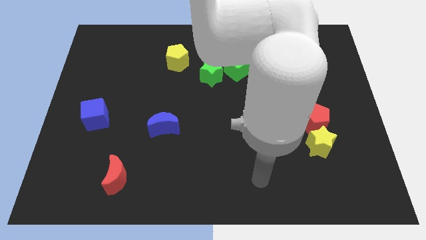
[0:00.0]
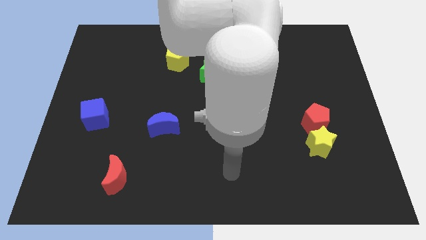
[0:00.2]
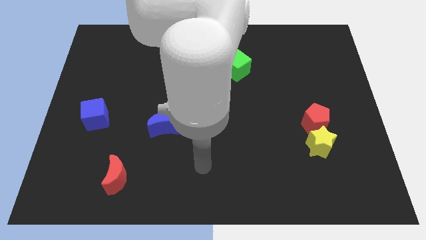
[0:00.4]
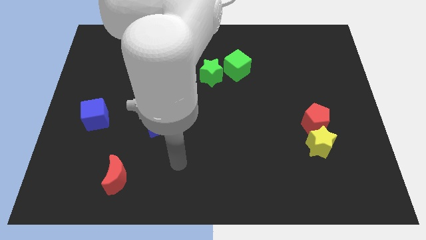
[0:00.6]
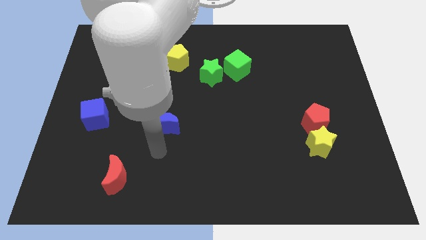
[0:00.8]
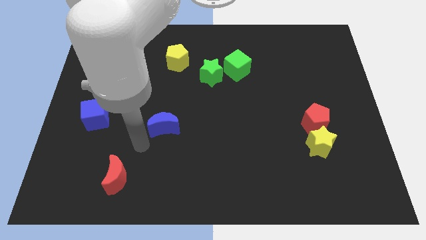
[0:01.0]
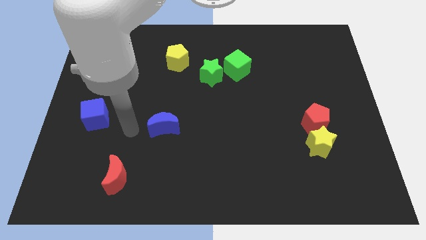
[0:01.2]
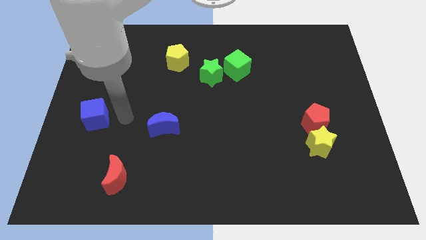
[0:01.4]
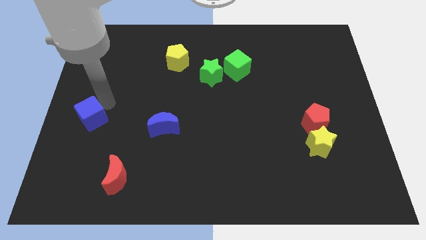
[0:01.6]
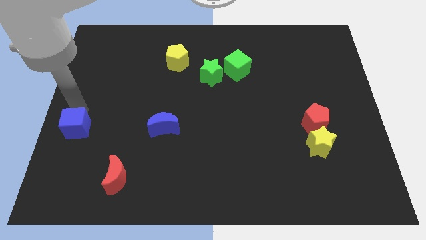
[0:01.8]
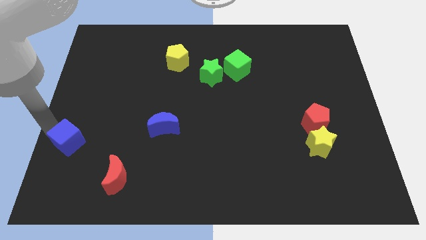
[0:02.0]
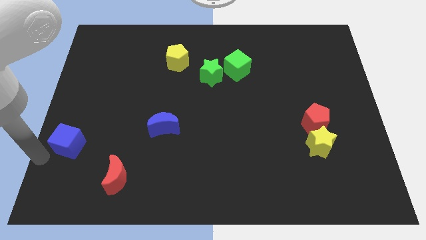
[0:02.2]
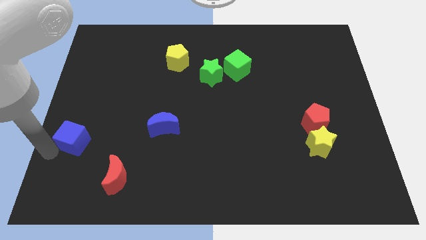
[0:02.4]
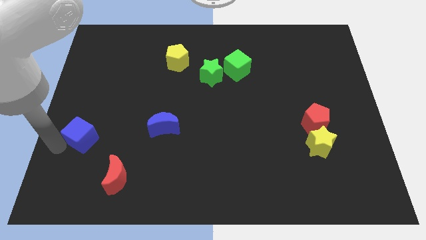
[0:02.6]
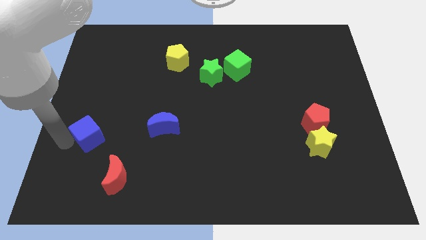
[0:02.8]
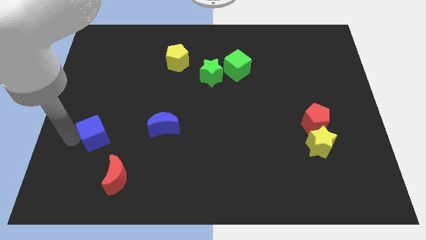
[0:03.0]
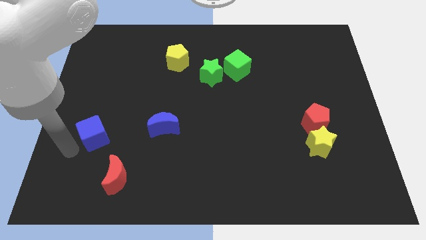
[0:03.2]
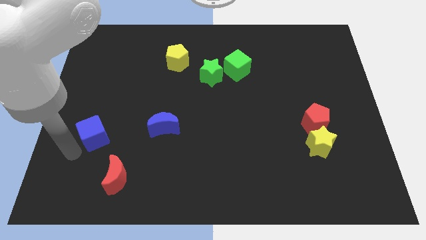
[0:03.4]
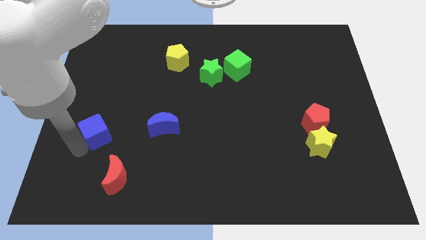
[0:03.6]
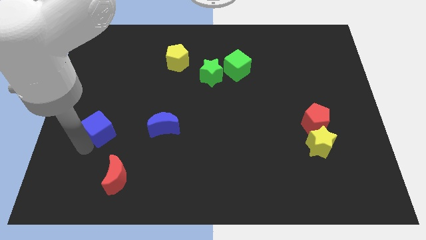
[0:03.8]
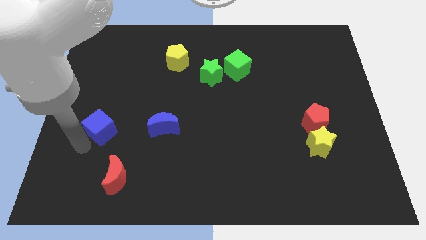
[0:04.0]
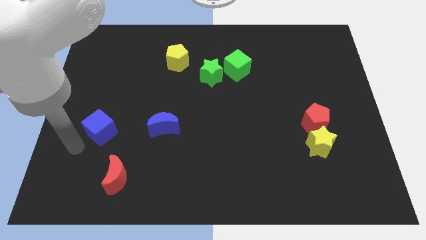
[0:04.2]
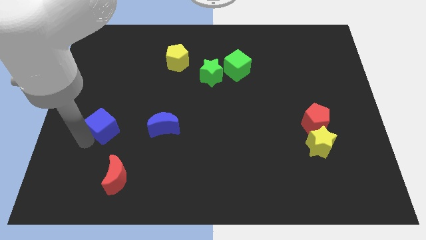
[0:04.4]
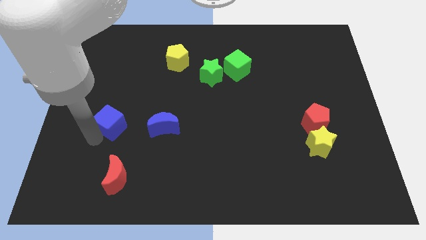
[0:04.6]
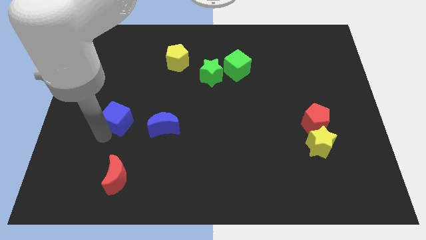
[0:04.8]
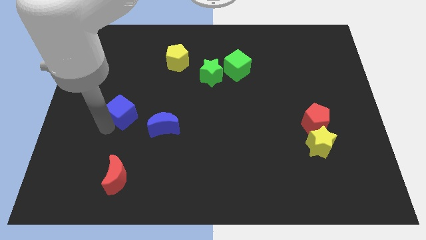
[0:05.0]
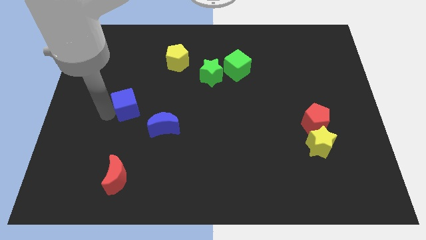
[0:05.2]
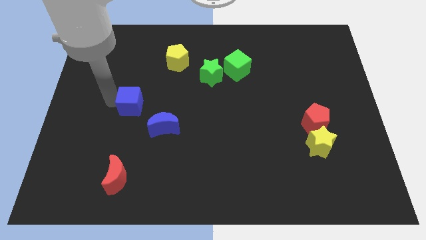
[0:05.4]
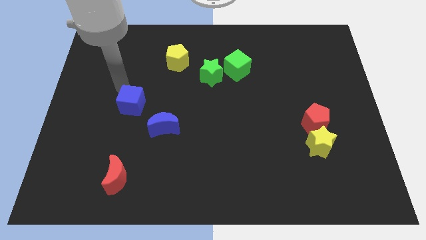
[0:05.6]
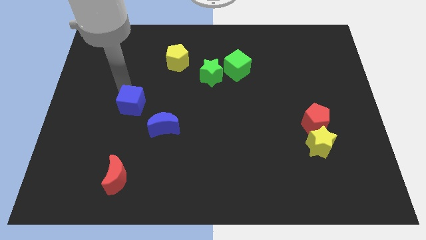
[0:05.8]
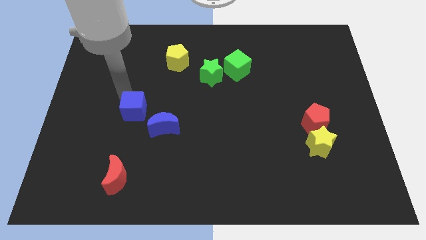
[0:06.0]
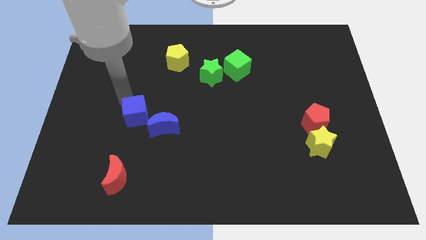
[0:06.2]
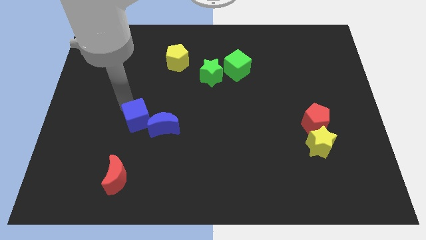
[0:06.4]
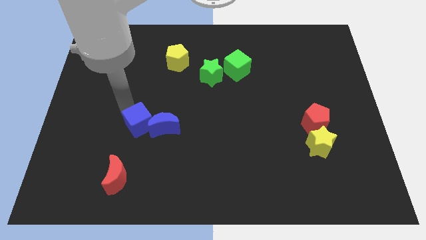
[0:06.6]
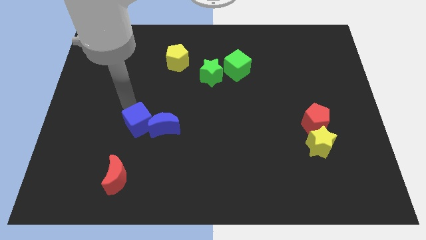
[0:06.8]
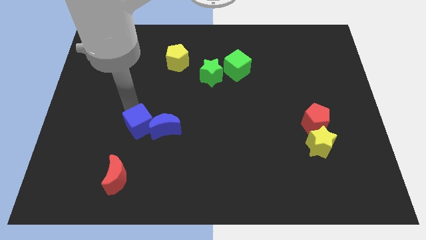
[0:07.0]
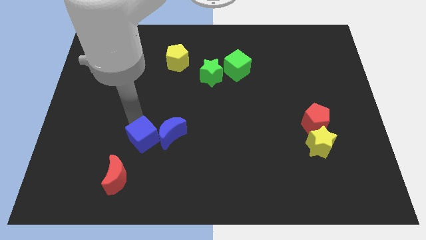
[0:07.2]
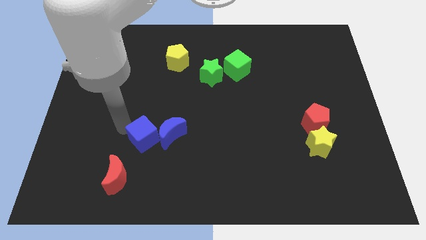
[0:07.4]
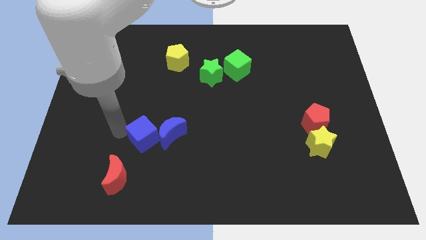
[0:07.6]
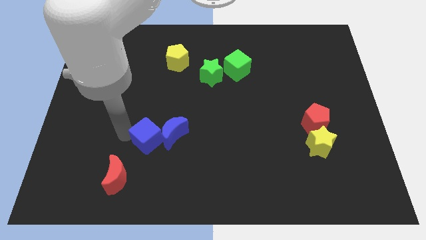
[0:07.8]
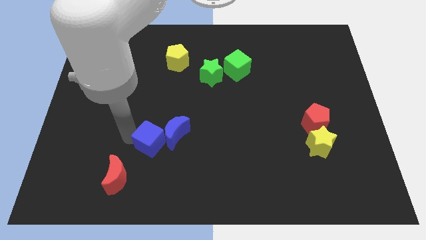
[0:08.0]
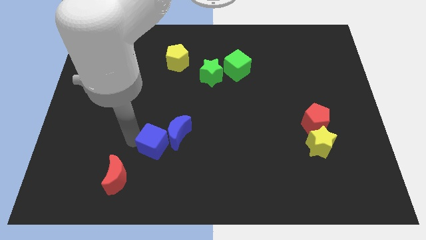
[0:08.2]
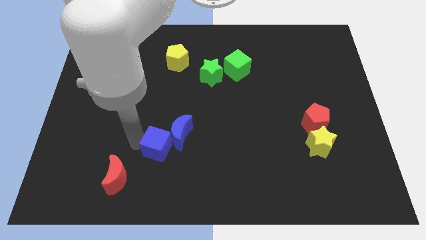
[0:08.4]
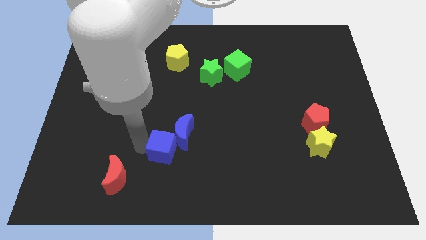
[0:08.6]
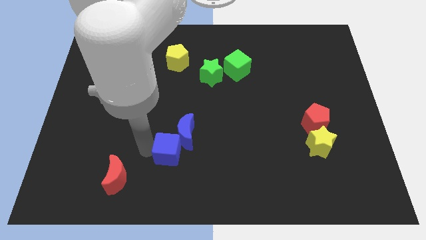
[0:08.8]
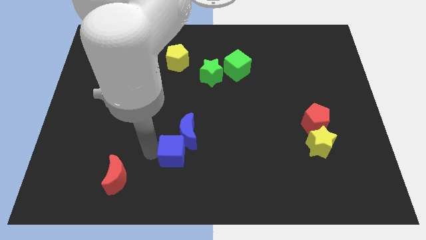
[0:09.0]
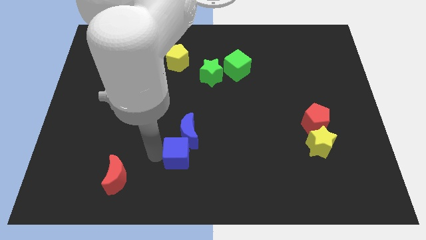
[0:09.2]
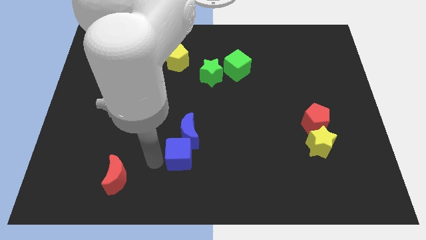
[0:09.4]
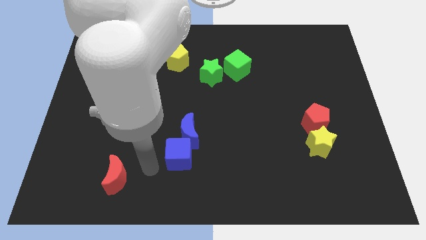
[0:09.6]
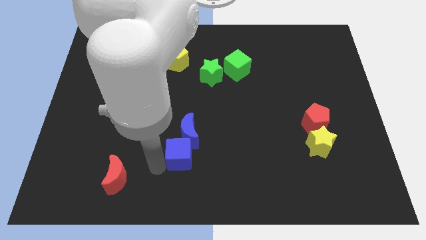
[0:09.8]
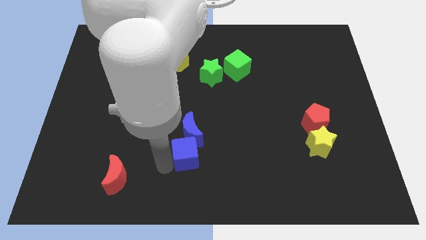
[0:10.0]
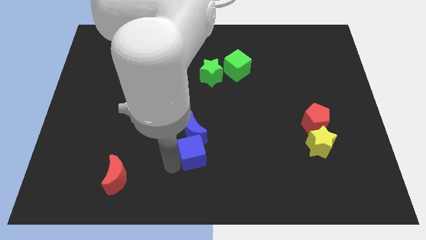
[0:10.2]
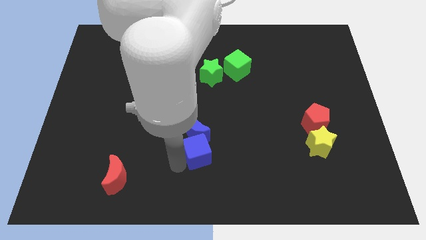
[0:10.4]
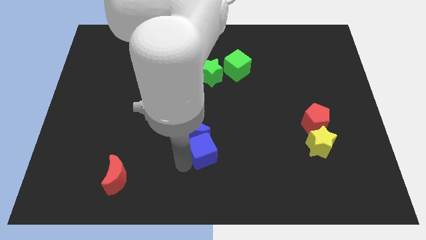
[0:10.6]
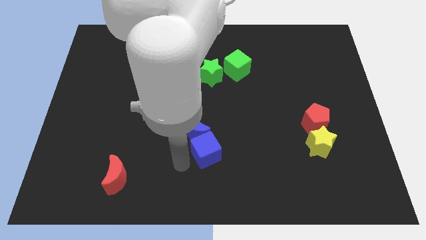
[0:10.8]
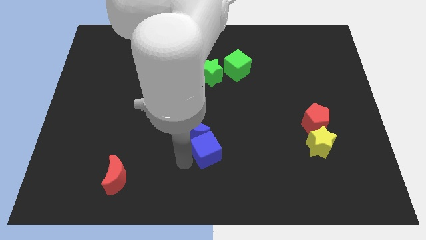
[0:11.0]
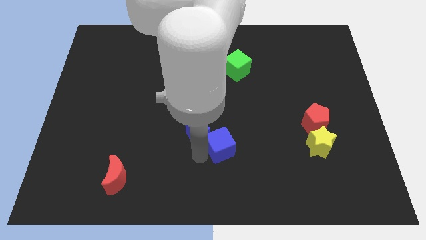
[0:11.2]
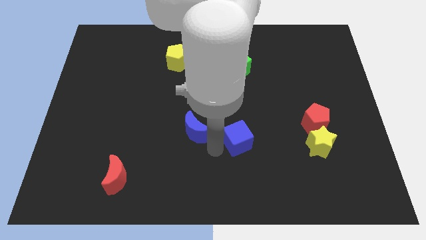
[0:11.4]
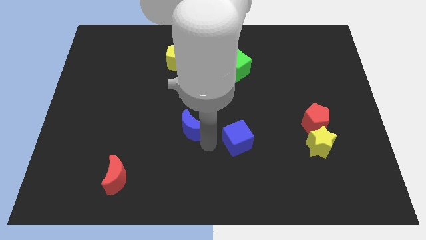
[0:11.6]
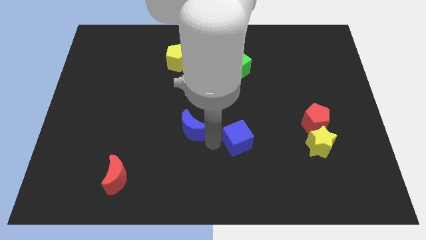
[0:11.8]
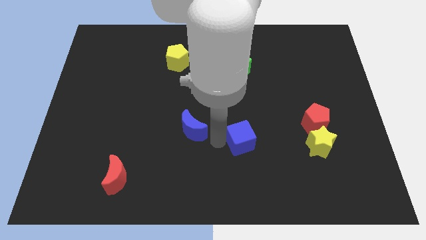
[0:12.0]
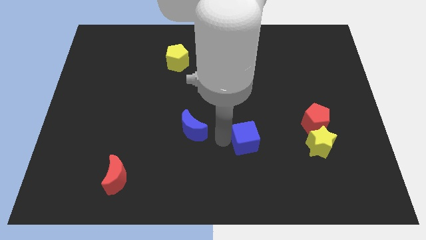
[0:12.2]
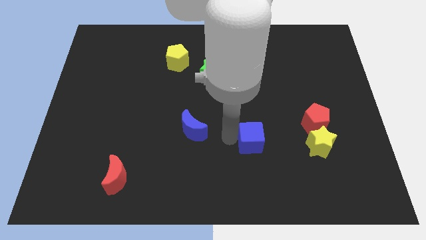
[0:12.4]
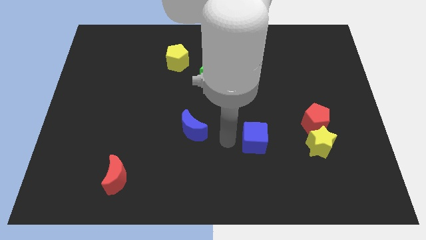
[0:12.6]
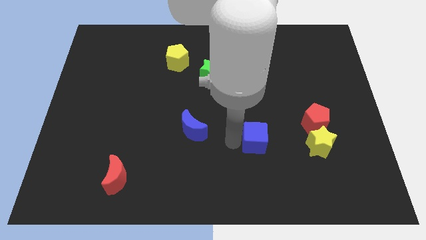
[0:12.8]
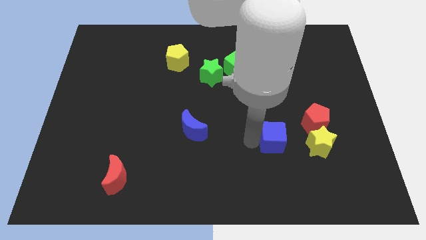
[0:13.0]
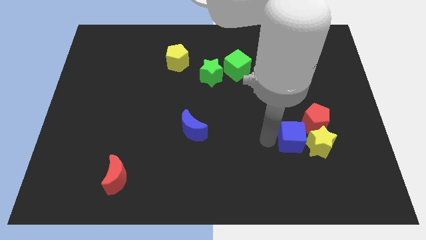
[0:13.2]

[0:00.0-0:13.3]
put the blue cube close to the yellow star
